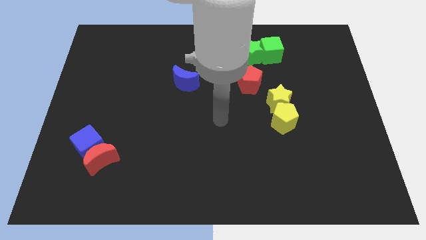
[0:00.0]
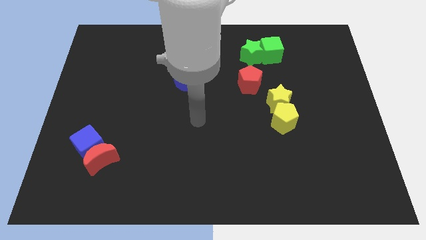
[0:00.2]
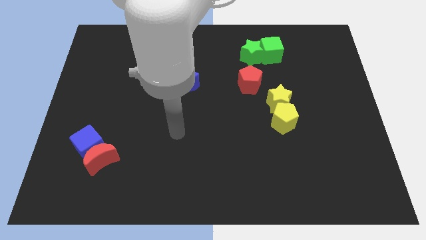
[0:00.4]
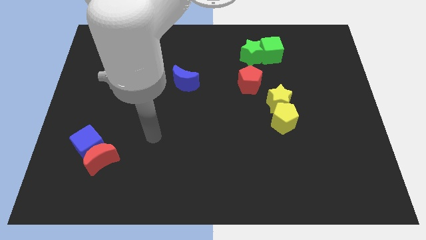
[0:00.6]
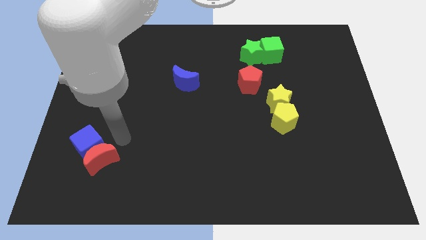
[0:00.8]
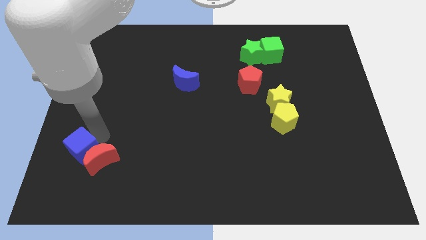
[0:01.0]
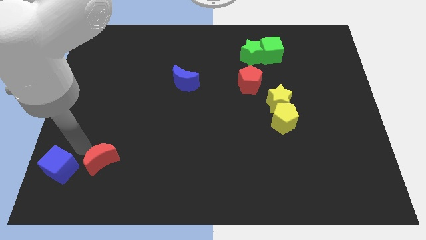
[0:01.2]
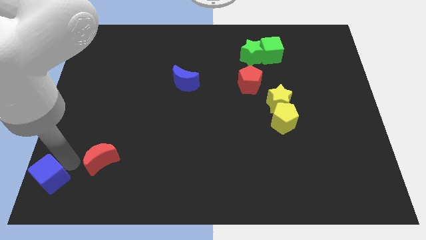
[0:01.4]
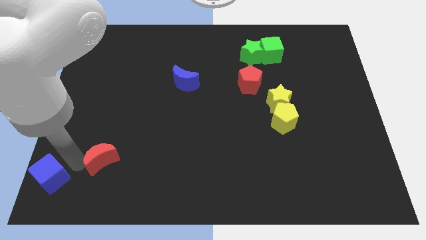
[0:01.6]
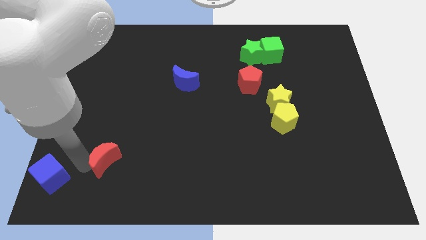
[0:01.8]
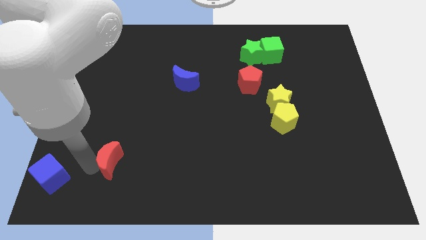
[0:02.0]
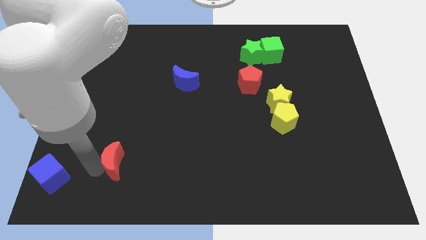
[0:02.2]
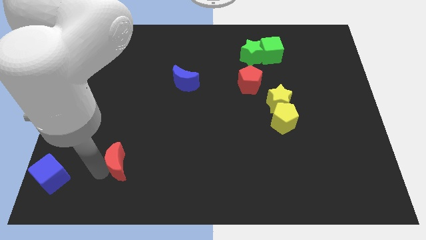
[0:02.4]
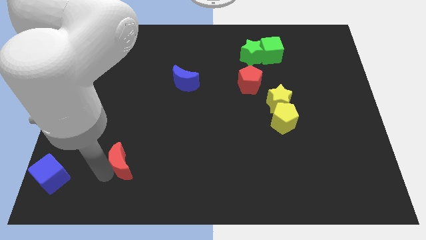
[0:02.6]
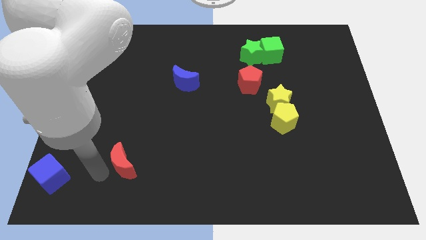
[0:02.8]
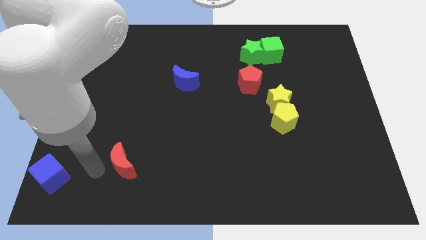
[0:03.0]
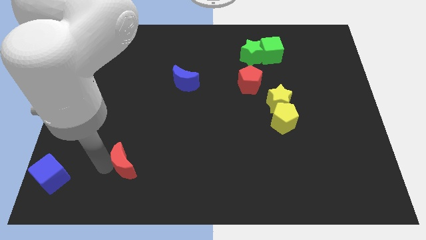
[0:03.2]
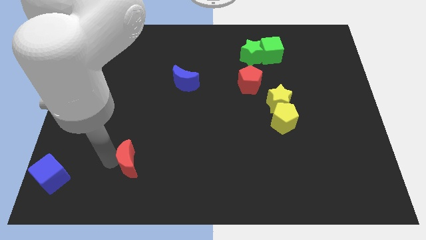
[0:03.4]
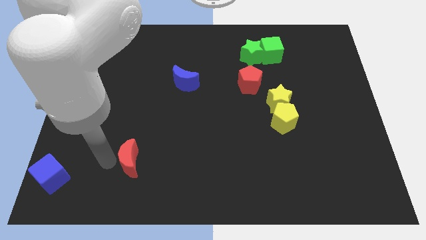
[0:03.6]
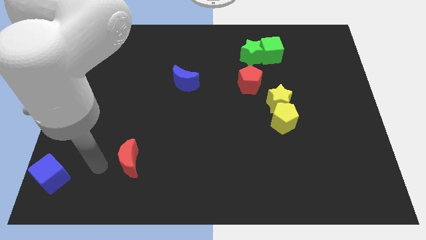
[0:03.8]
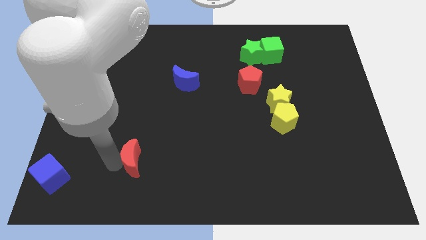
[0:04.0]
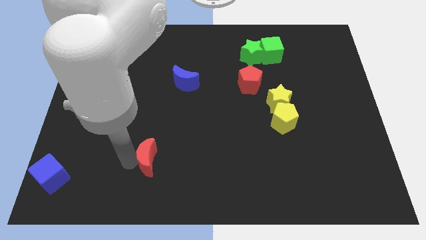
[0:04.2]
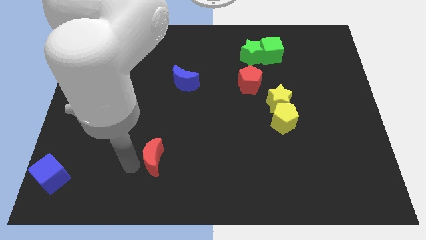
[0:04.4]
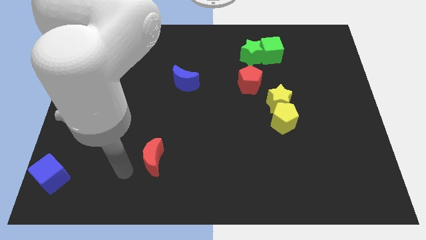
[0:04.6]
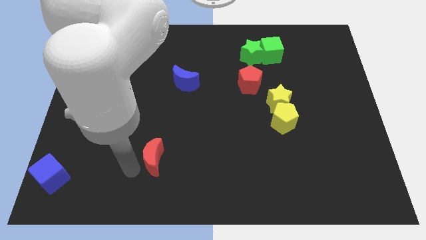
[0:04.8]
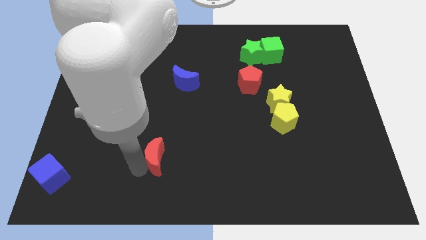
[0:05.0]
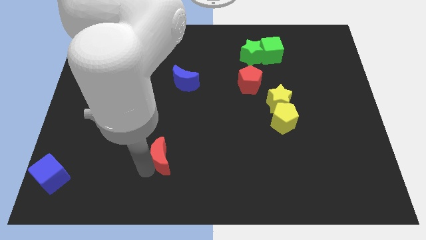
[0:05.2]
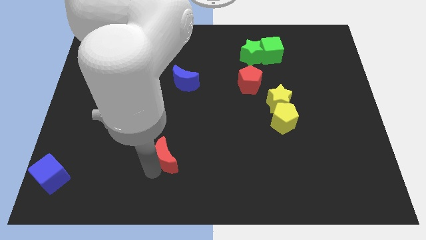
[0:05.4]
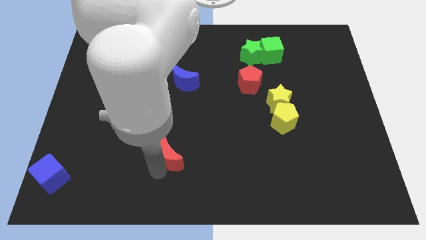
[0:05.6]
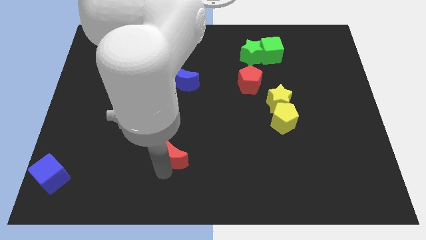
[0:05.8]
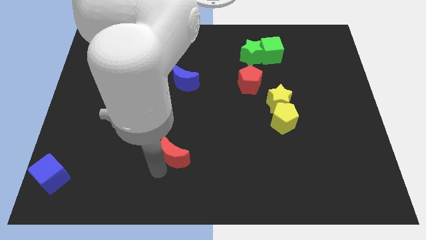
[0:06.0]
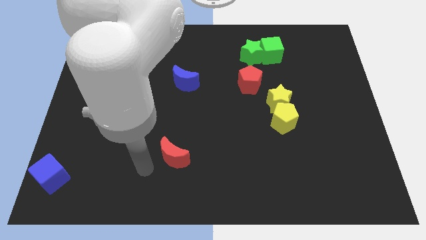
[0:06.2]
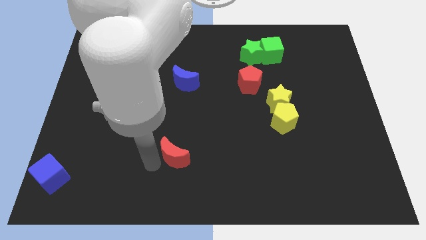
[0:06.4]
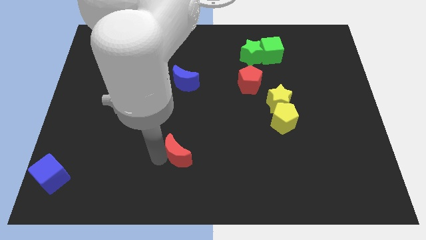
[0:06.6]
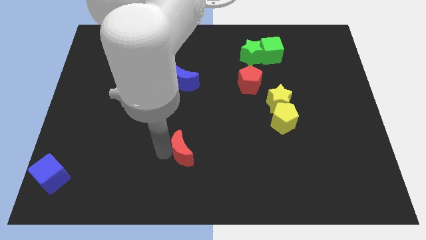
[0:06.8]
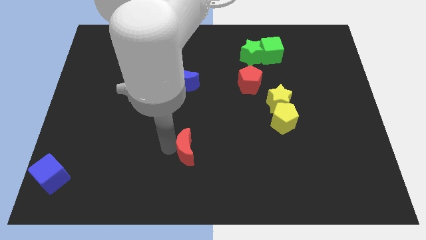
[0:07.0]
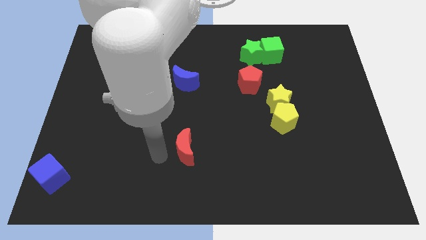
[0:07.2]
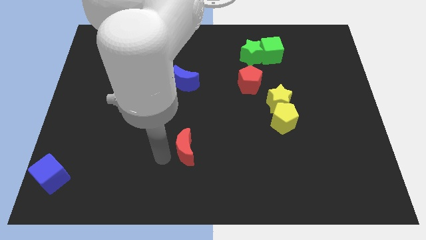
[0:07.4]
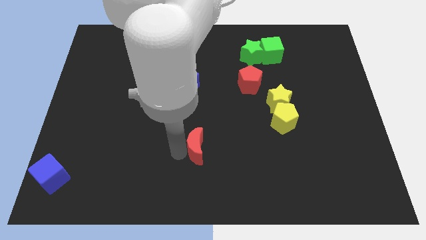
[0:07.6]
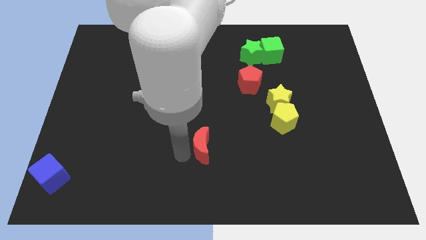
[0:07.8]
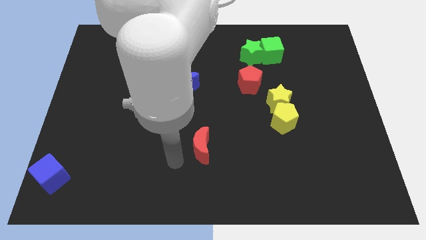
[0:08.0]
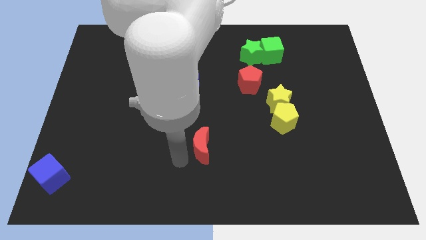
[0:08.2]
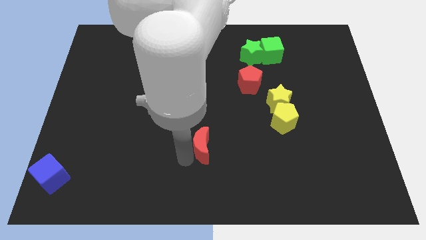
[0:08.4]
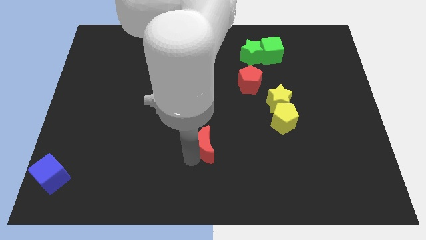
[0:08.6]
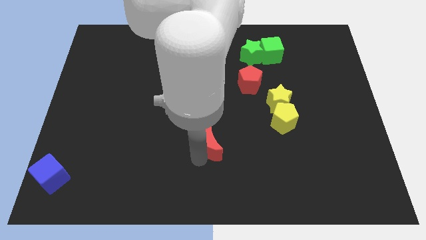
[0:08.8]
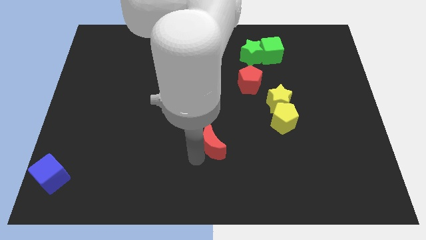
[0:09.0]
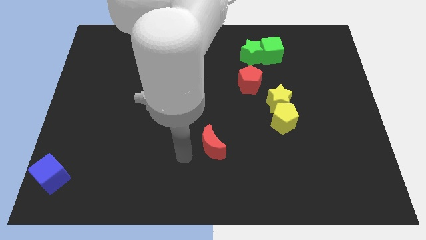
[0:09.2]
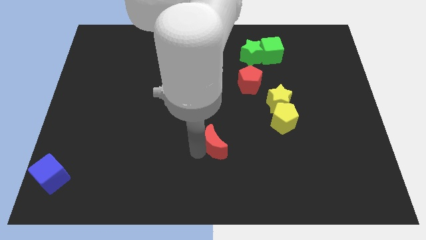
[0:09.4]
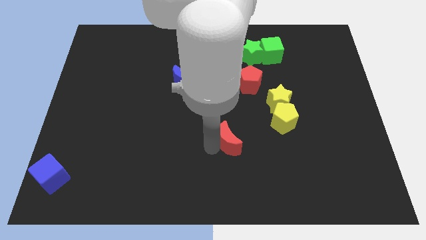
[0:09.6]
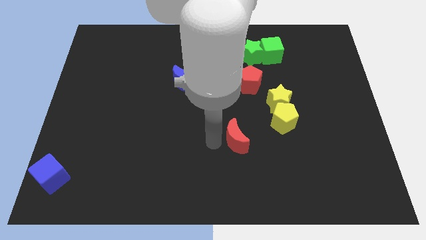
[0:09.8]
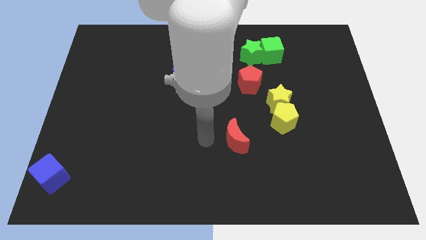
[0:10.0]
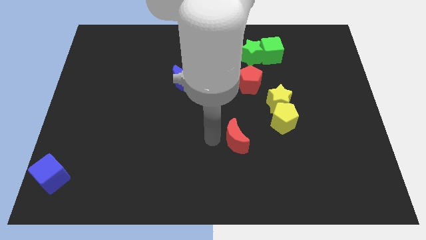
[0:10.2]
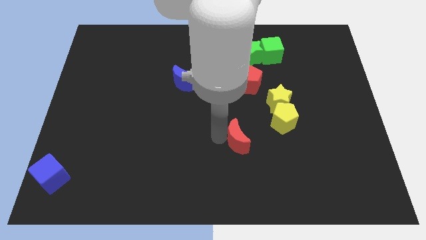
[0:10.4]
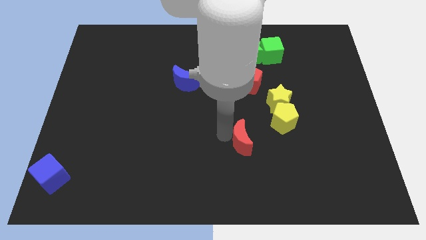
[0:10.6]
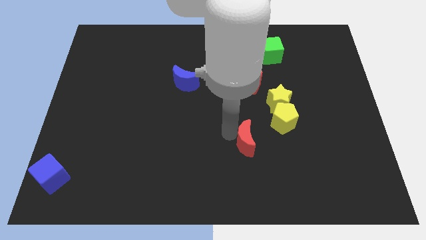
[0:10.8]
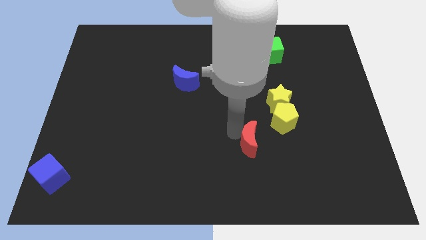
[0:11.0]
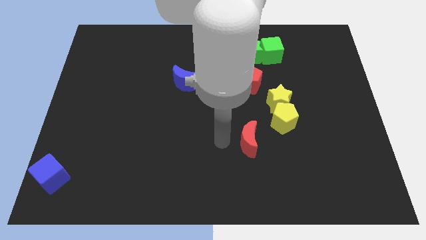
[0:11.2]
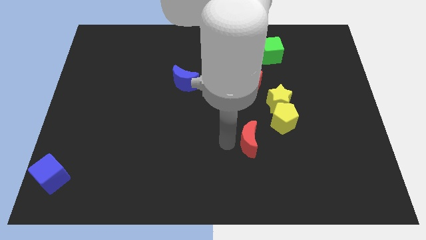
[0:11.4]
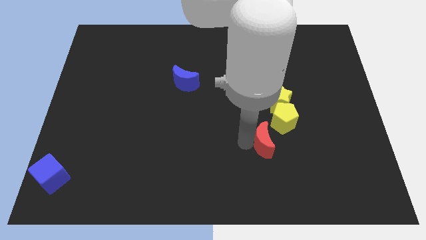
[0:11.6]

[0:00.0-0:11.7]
slide the red moon to the bottom of the yellow star
